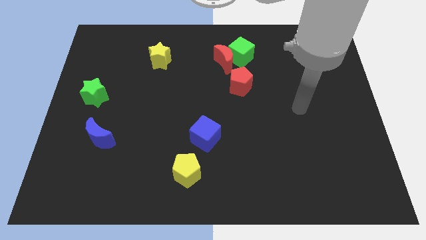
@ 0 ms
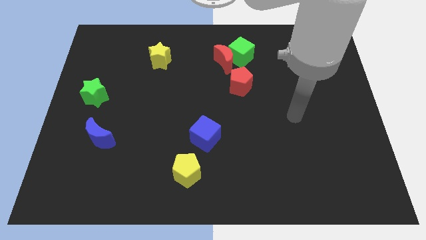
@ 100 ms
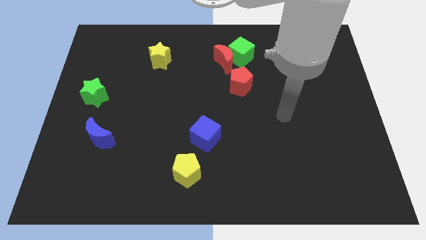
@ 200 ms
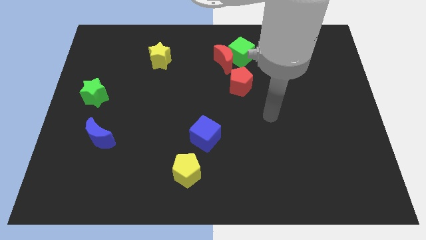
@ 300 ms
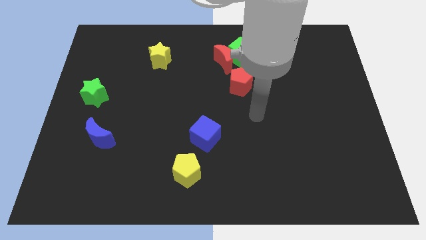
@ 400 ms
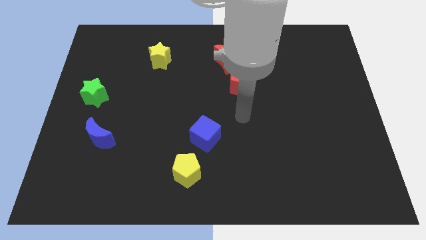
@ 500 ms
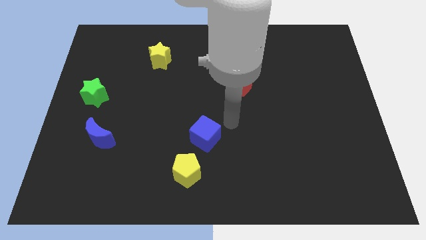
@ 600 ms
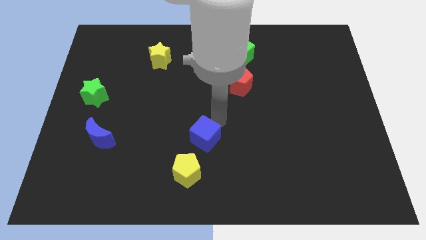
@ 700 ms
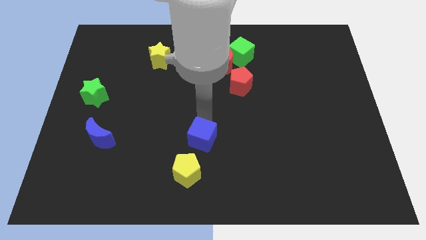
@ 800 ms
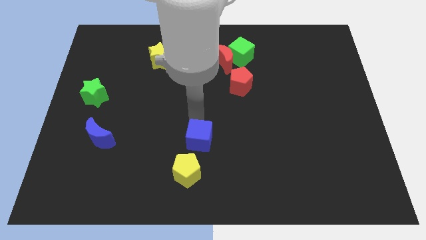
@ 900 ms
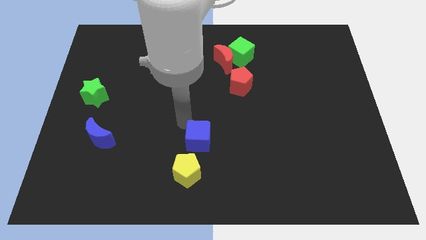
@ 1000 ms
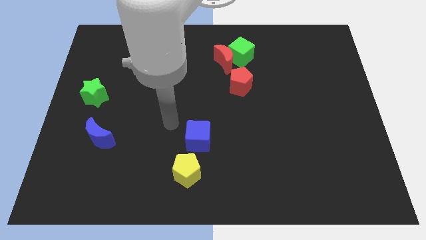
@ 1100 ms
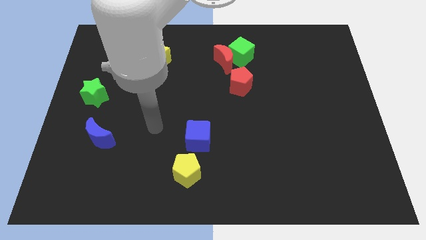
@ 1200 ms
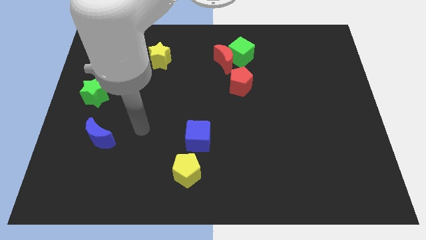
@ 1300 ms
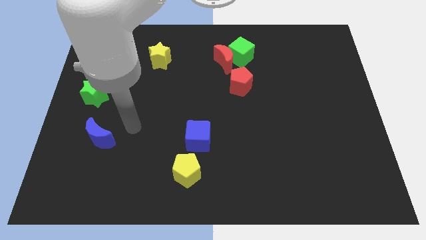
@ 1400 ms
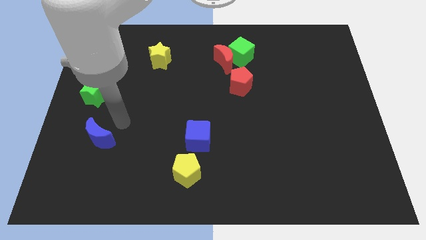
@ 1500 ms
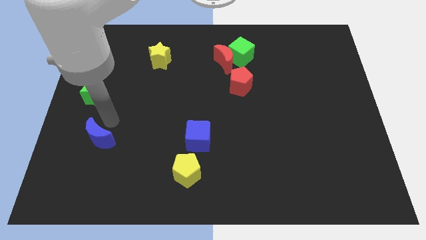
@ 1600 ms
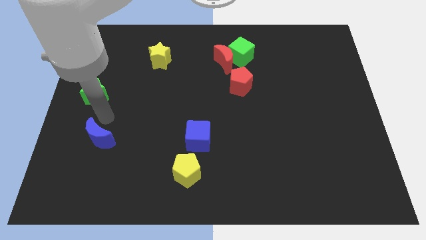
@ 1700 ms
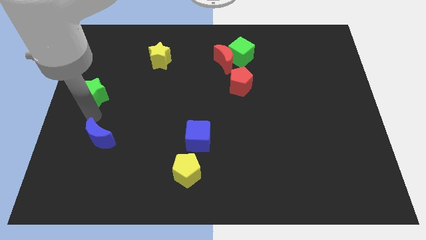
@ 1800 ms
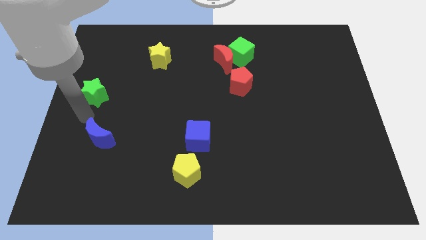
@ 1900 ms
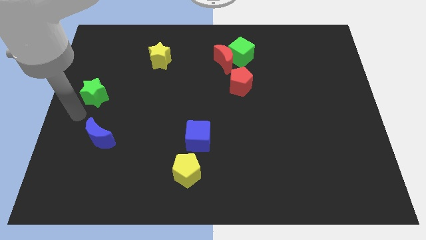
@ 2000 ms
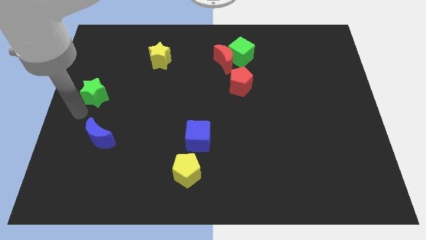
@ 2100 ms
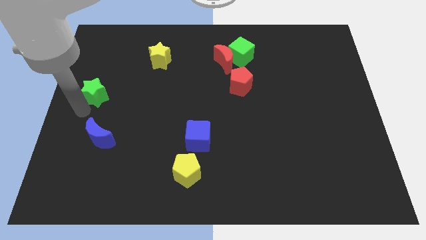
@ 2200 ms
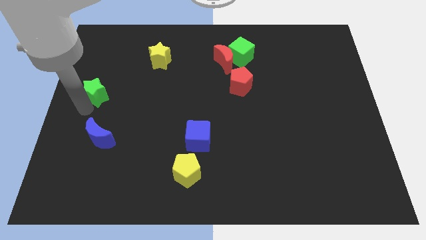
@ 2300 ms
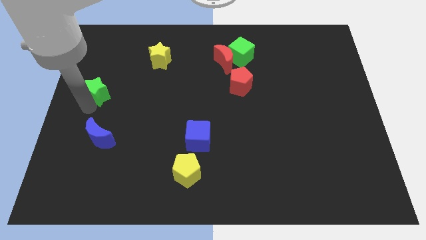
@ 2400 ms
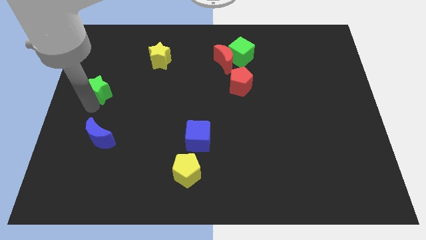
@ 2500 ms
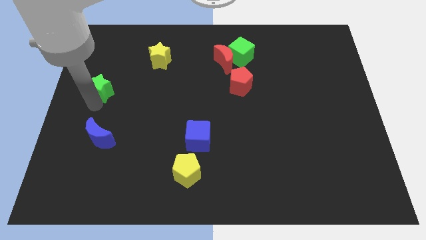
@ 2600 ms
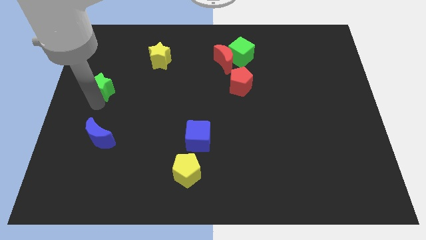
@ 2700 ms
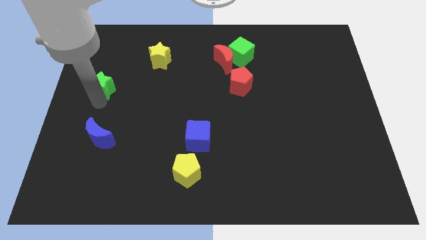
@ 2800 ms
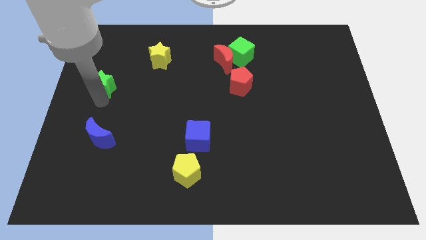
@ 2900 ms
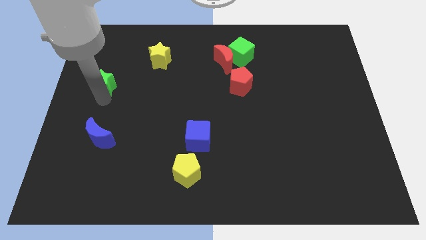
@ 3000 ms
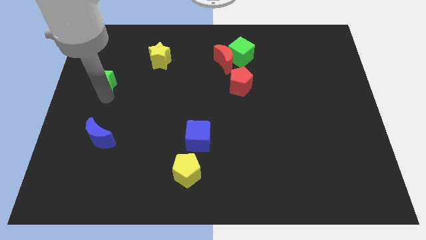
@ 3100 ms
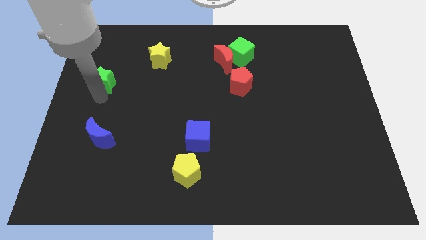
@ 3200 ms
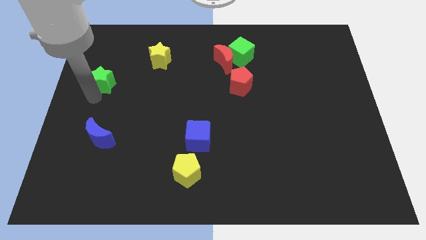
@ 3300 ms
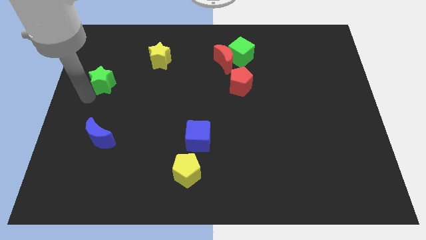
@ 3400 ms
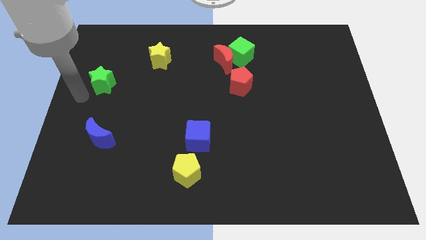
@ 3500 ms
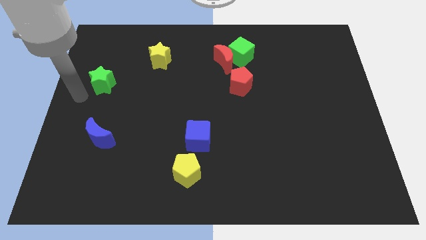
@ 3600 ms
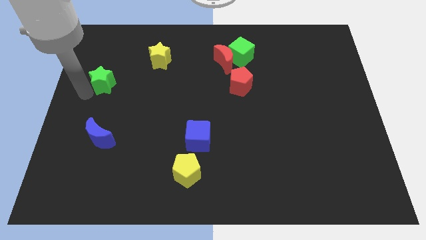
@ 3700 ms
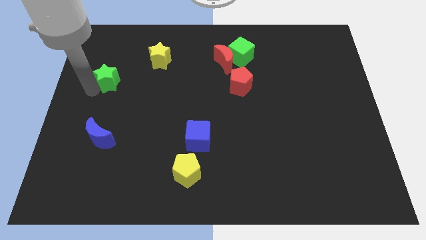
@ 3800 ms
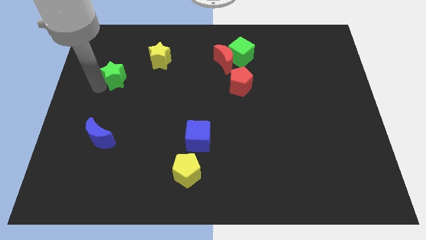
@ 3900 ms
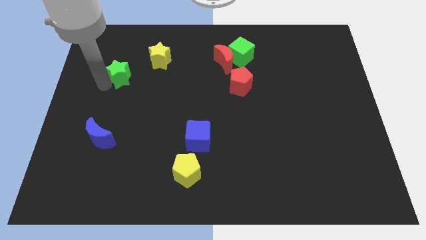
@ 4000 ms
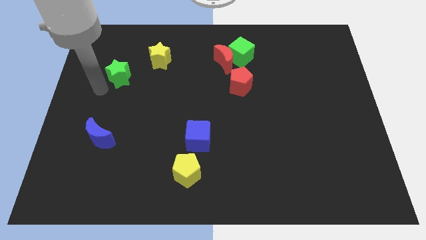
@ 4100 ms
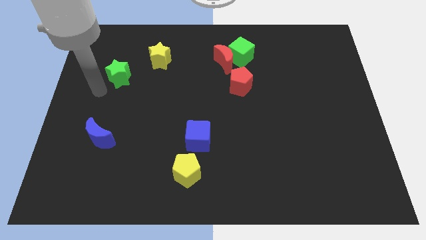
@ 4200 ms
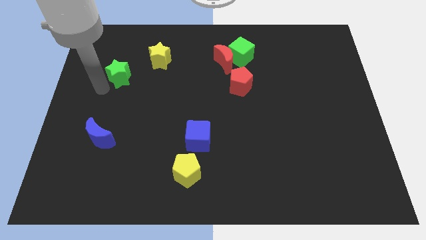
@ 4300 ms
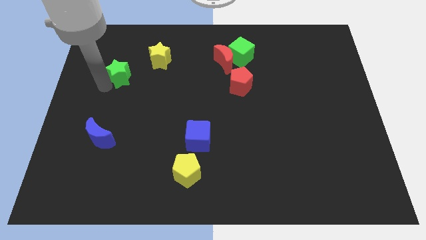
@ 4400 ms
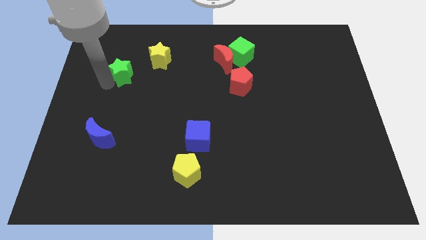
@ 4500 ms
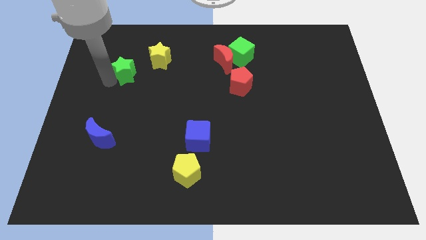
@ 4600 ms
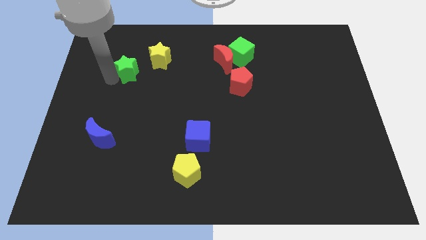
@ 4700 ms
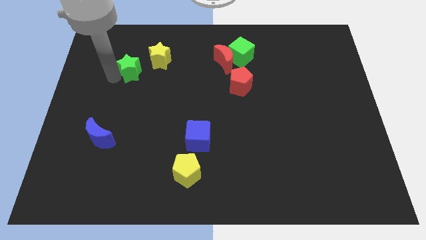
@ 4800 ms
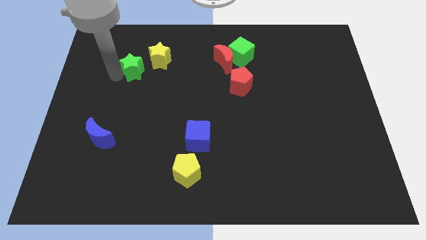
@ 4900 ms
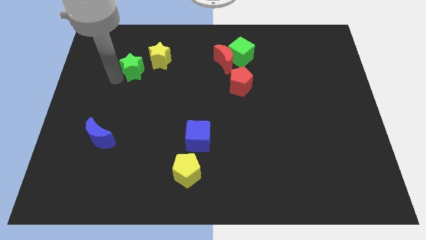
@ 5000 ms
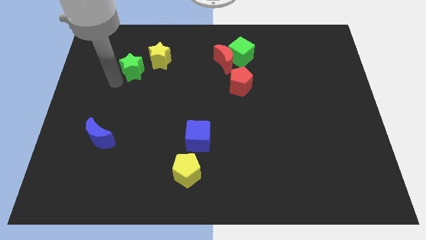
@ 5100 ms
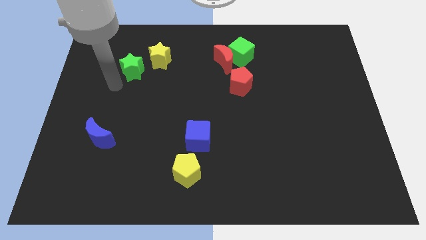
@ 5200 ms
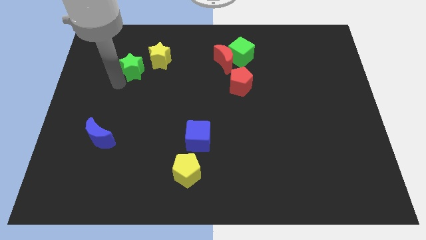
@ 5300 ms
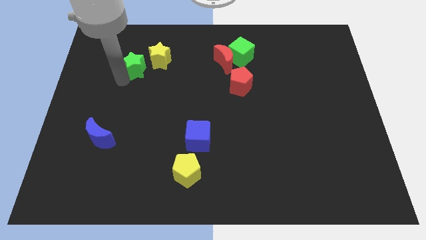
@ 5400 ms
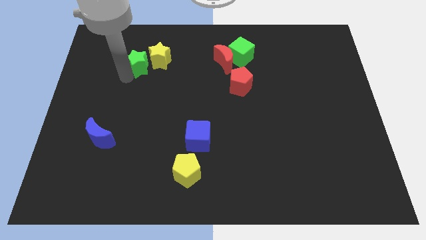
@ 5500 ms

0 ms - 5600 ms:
put the green star to the yellow star

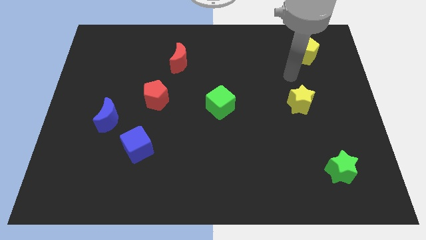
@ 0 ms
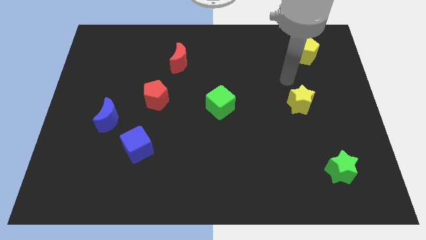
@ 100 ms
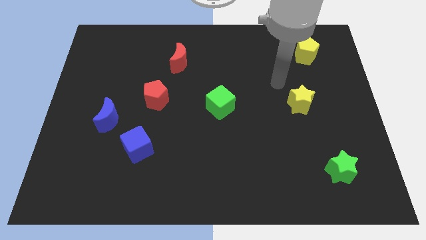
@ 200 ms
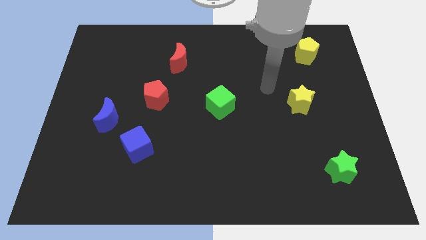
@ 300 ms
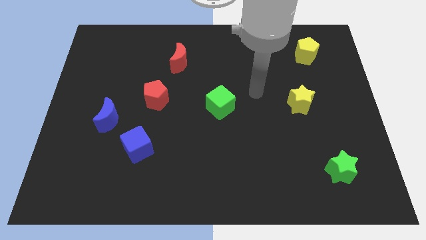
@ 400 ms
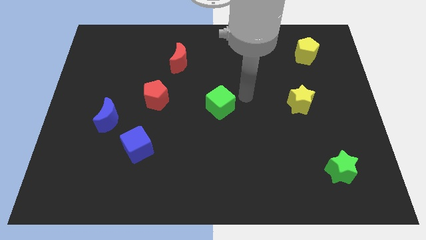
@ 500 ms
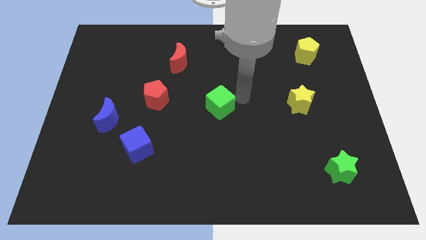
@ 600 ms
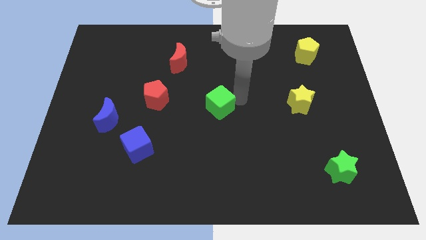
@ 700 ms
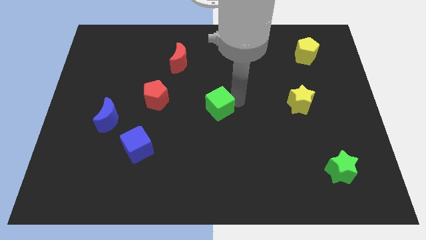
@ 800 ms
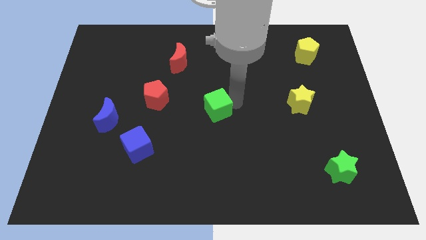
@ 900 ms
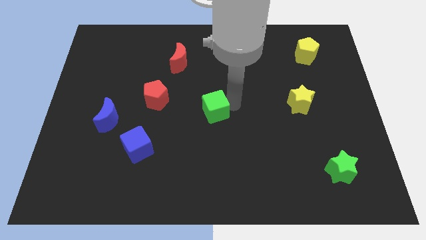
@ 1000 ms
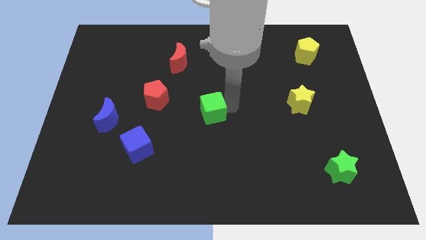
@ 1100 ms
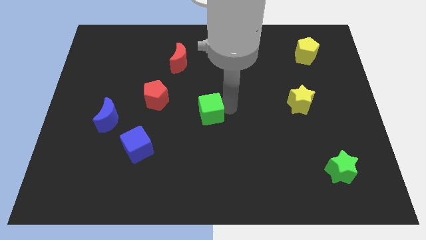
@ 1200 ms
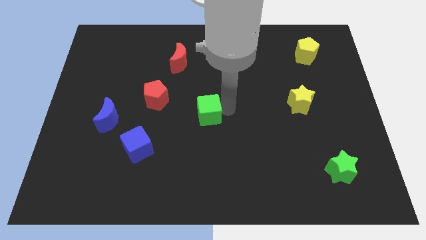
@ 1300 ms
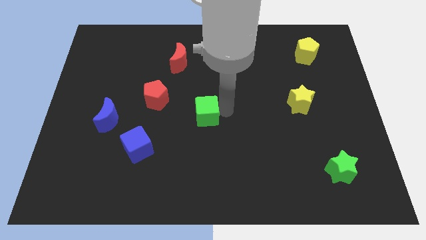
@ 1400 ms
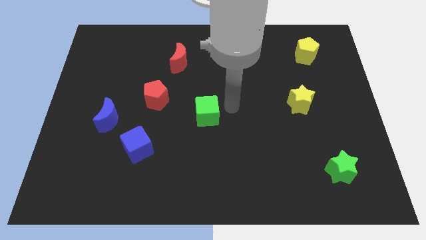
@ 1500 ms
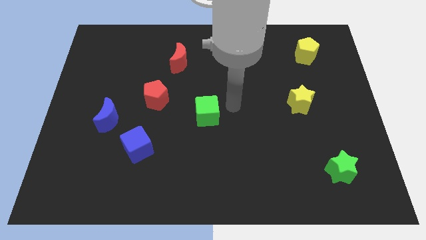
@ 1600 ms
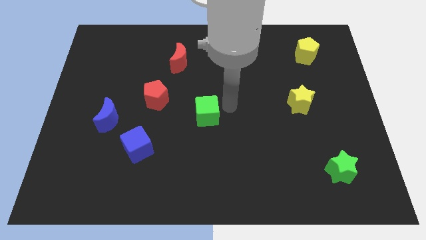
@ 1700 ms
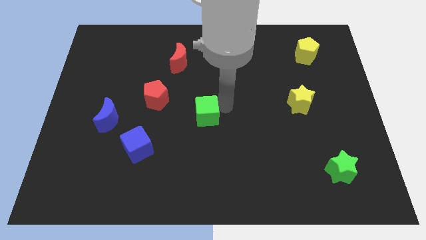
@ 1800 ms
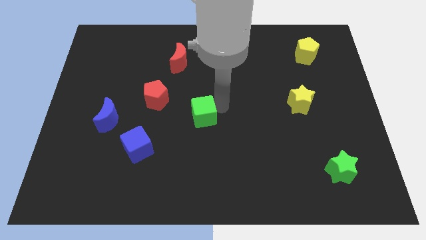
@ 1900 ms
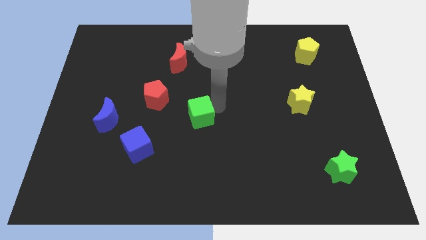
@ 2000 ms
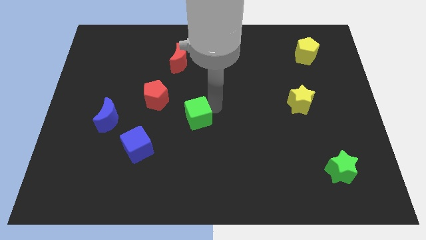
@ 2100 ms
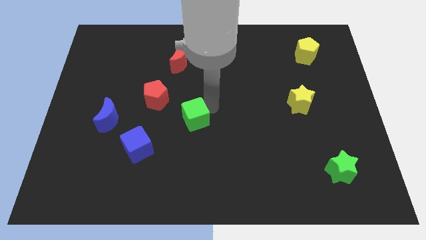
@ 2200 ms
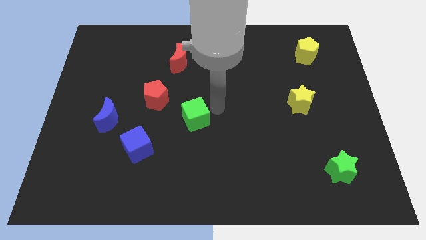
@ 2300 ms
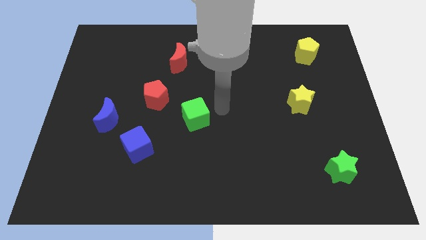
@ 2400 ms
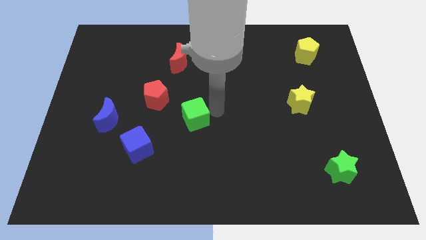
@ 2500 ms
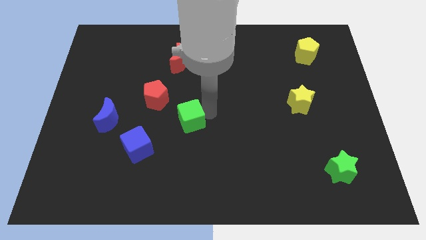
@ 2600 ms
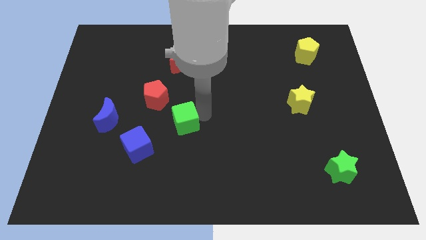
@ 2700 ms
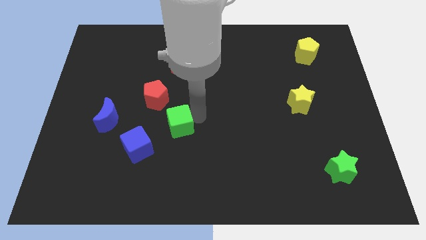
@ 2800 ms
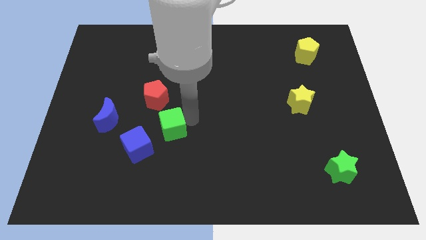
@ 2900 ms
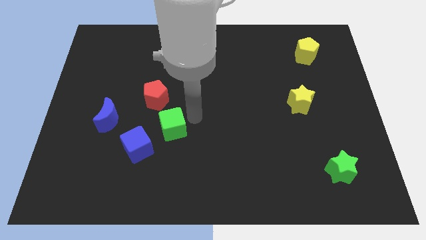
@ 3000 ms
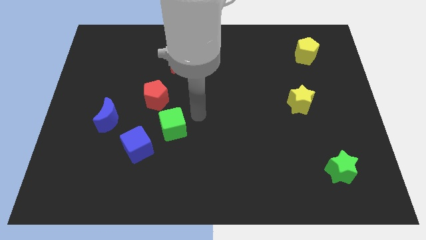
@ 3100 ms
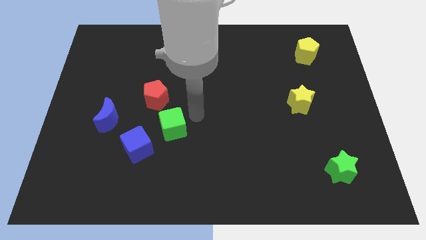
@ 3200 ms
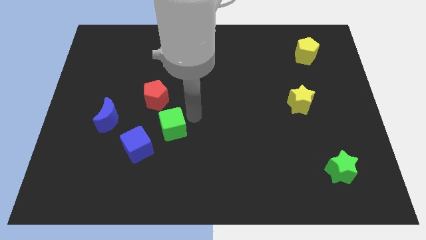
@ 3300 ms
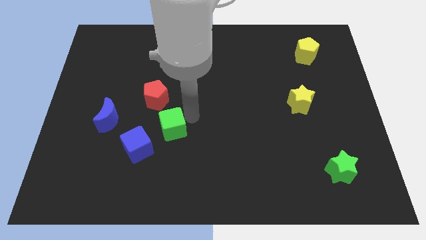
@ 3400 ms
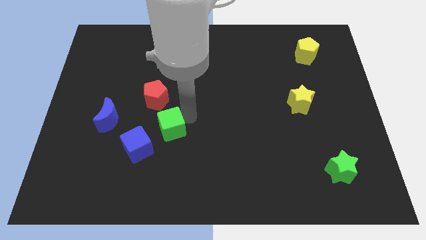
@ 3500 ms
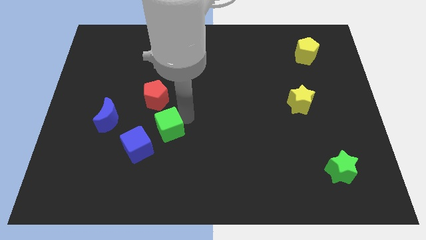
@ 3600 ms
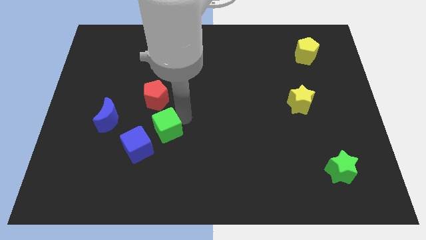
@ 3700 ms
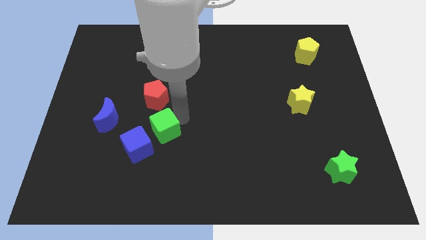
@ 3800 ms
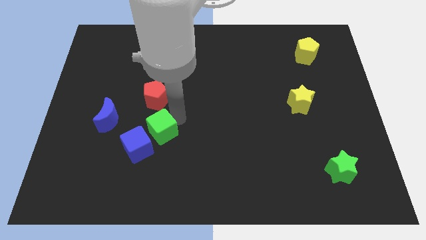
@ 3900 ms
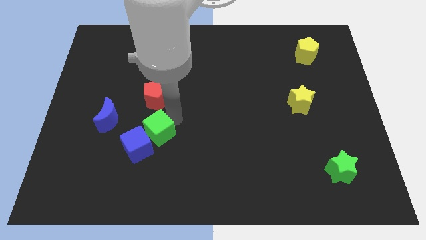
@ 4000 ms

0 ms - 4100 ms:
slide the green cube close to the blue cube
